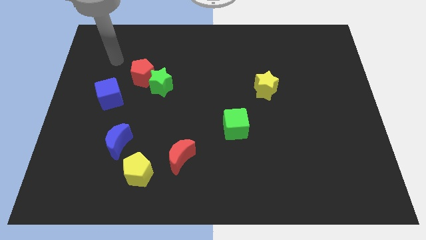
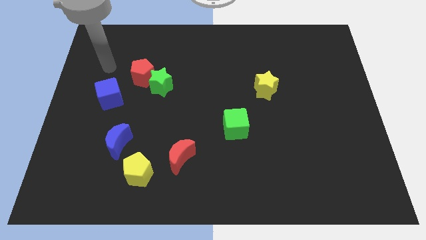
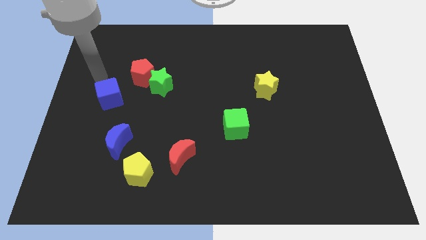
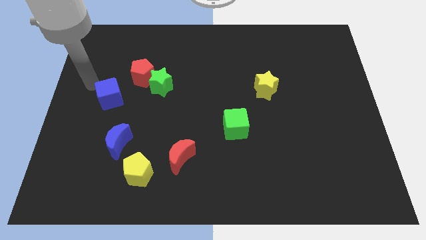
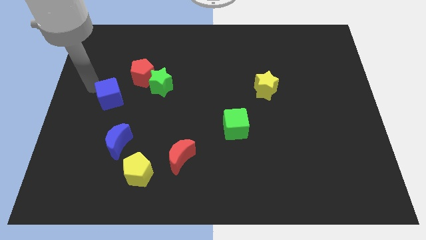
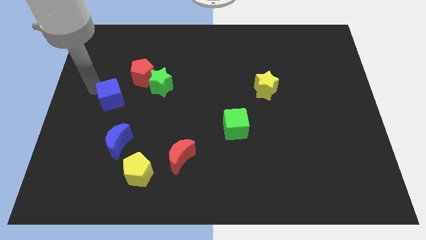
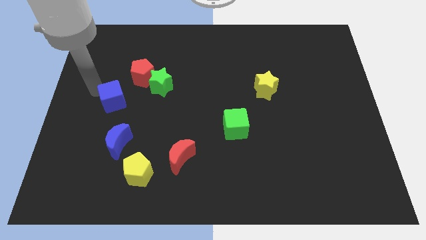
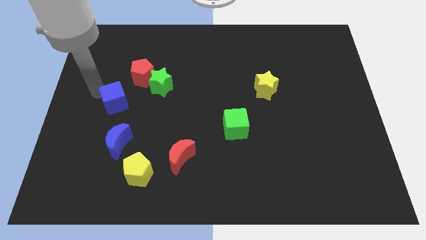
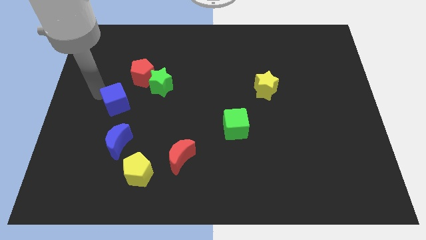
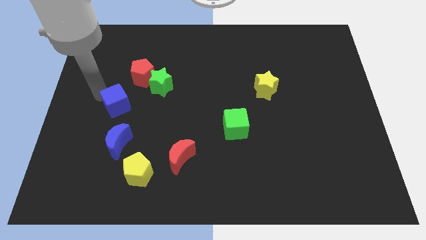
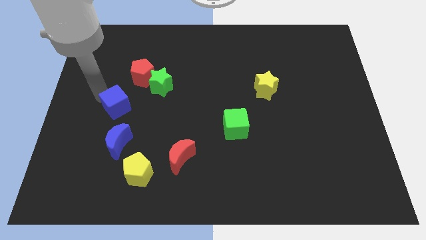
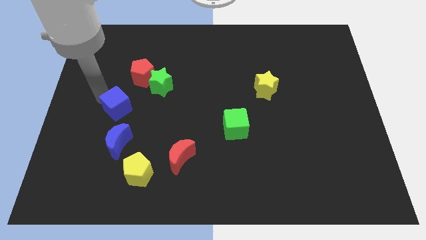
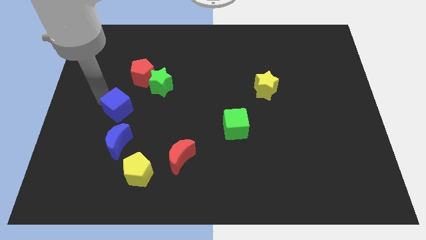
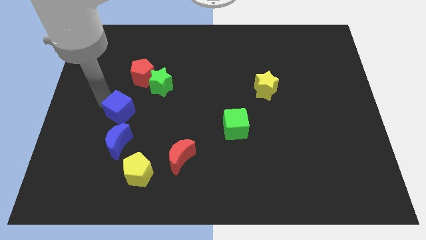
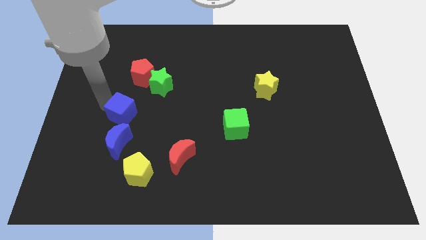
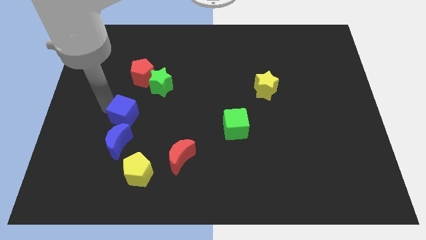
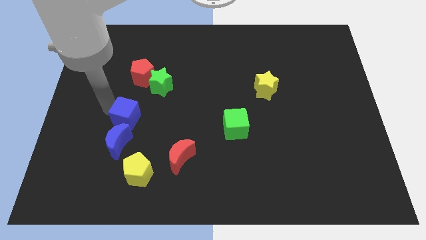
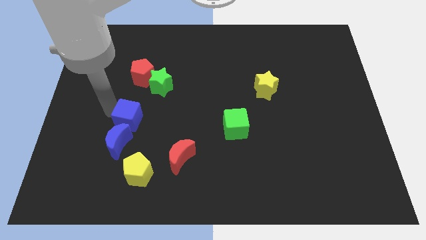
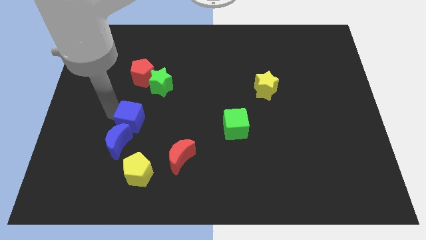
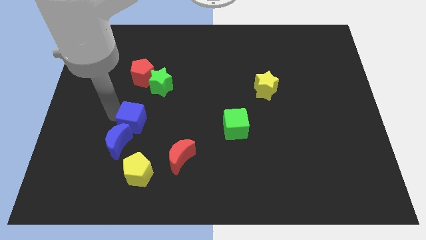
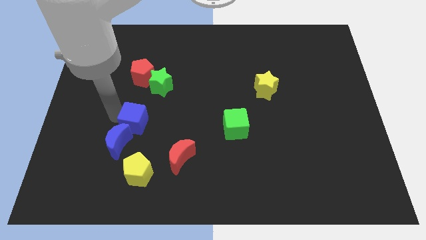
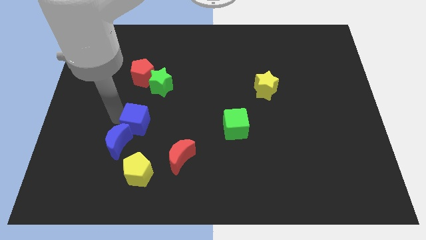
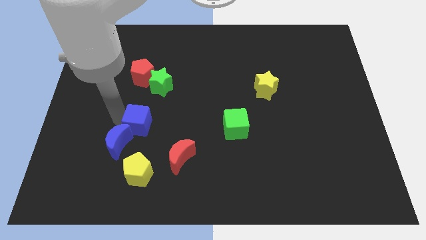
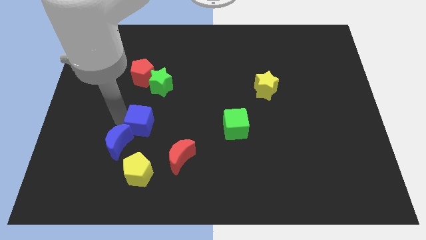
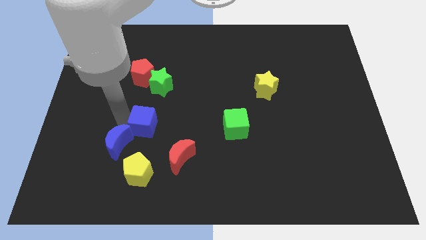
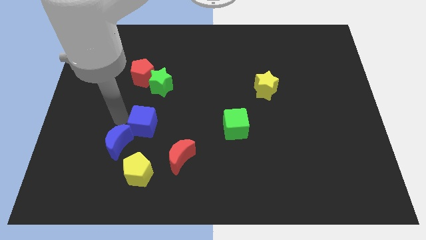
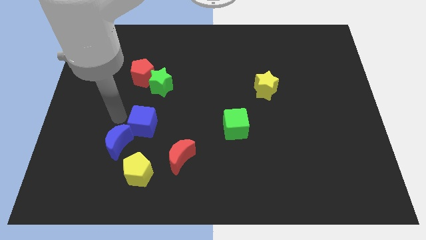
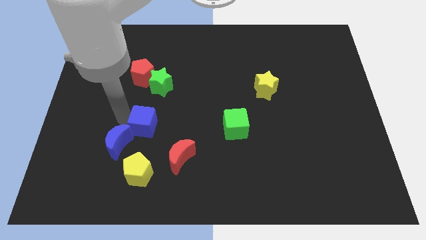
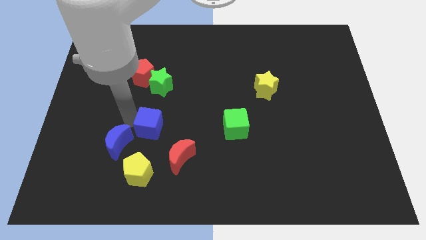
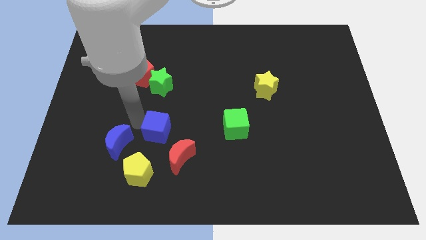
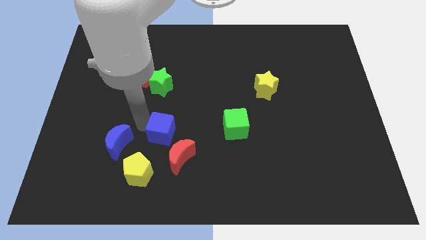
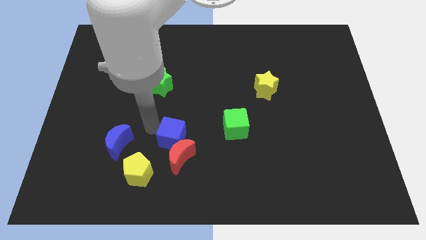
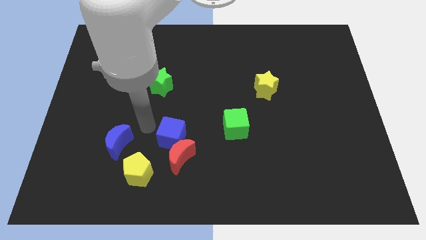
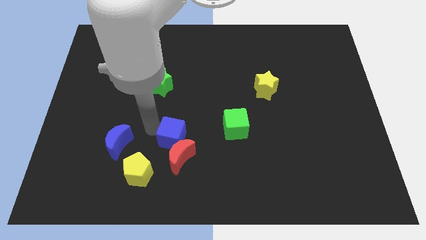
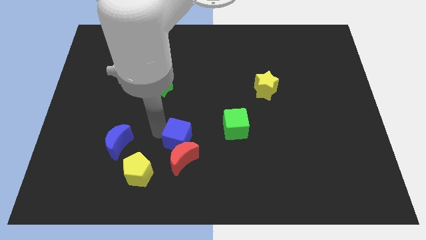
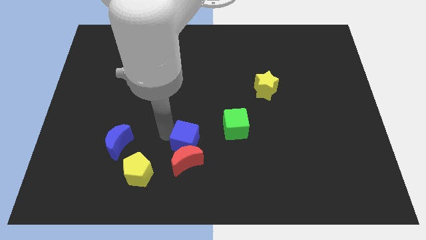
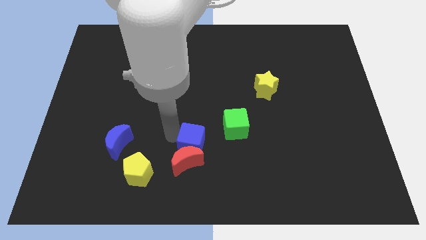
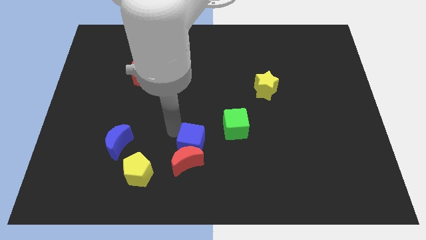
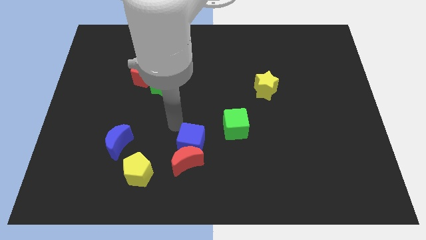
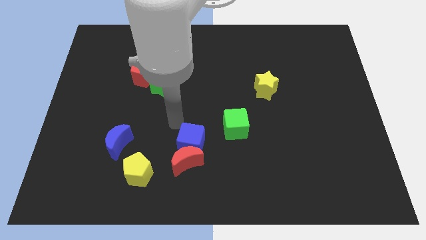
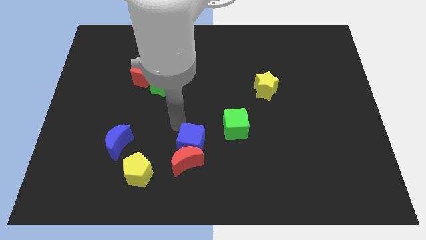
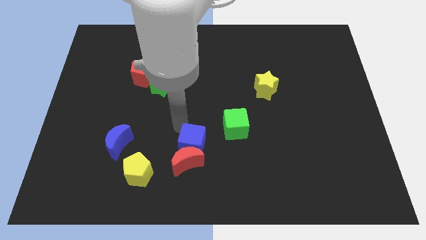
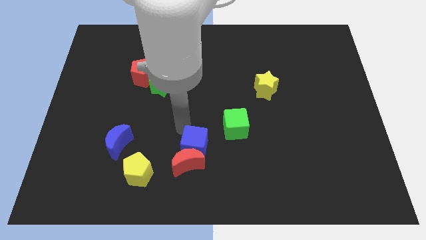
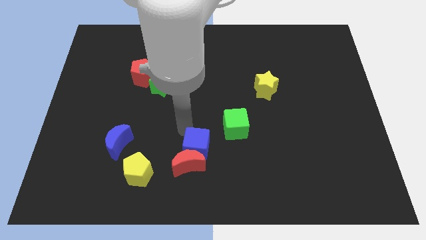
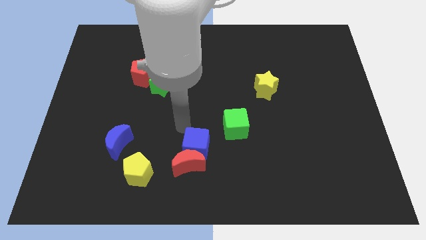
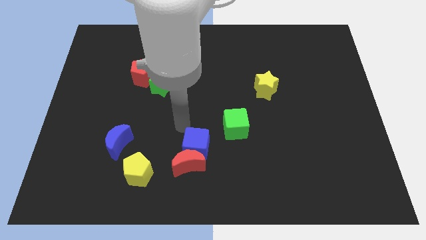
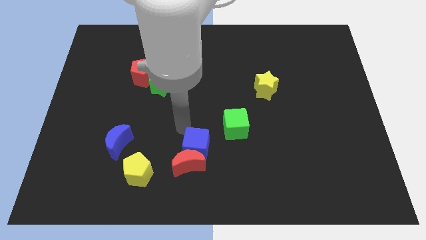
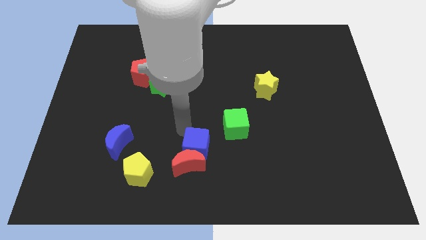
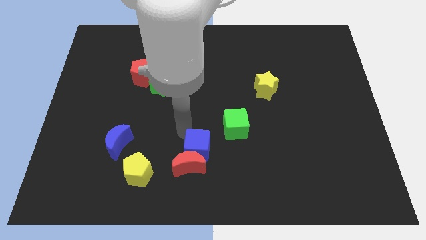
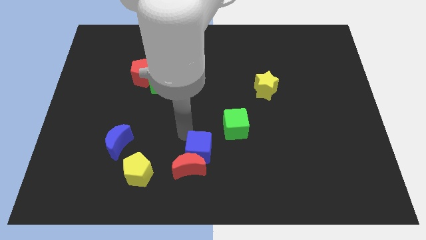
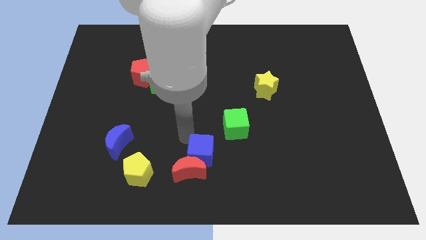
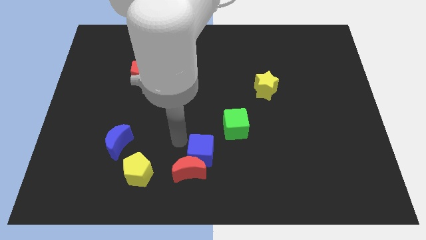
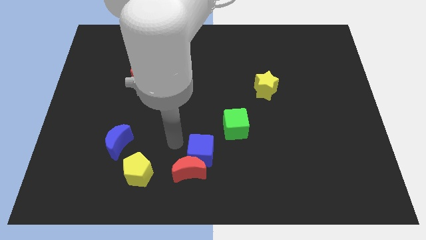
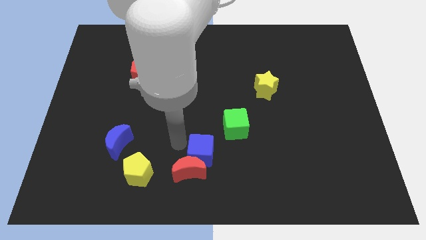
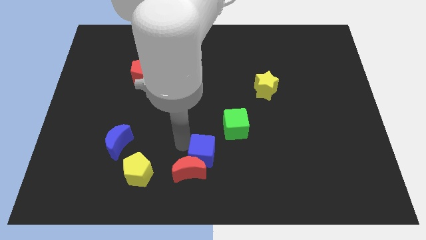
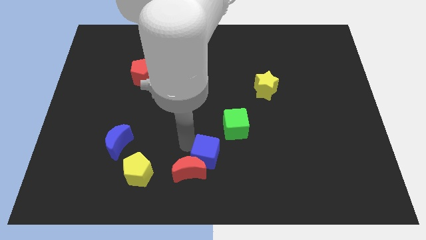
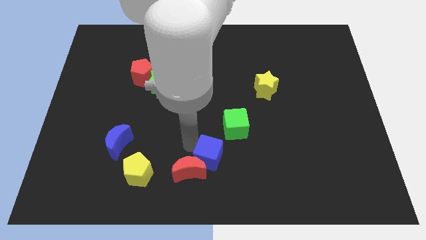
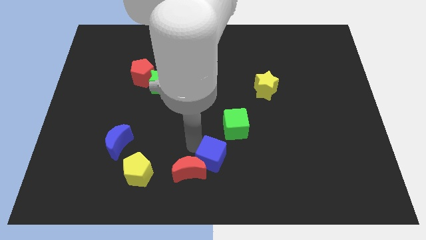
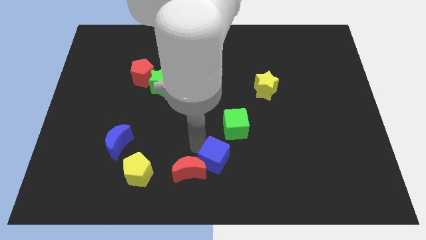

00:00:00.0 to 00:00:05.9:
slide the blue cube to the bottom side of the green cube
